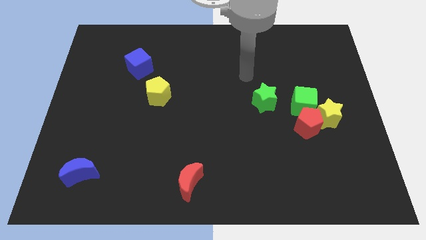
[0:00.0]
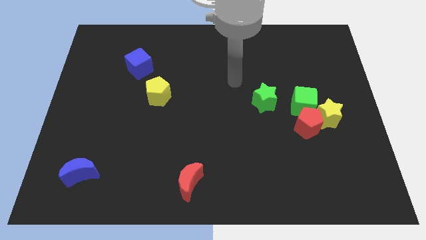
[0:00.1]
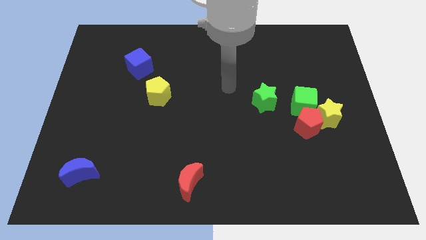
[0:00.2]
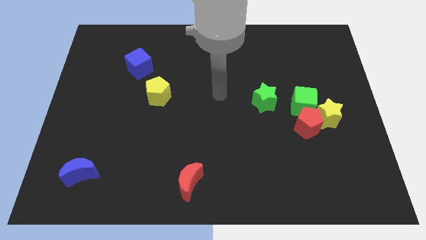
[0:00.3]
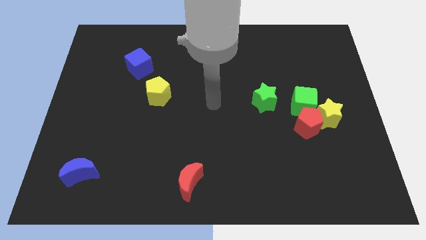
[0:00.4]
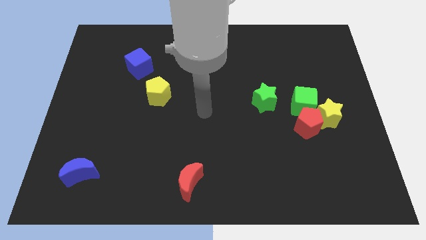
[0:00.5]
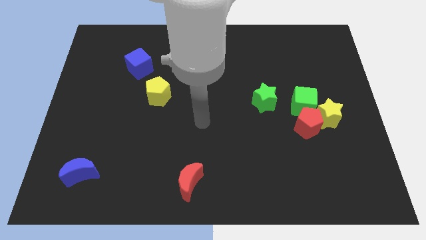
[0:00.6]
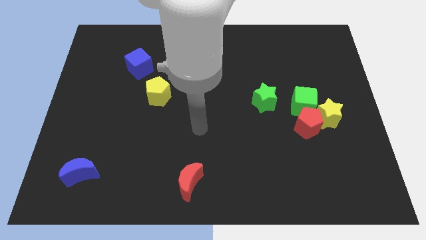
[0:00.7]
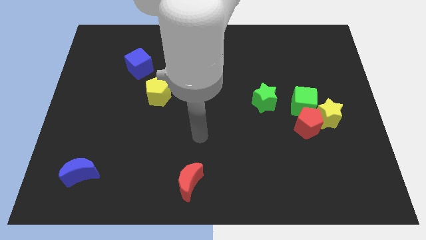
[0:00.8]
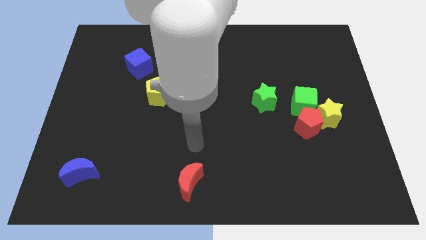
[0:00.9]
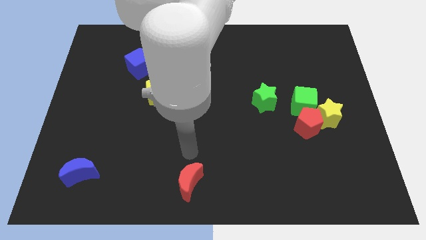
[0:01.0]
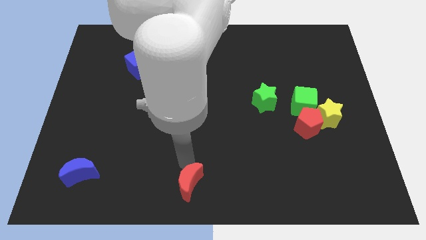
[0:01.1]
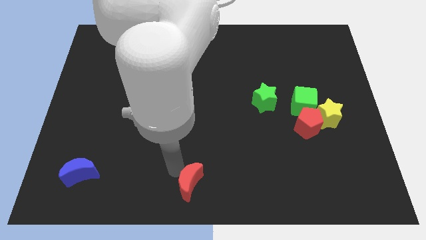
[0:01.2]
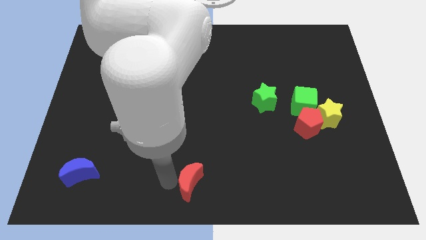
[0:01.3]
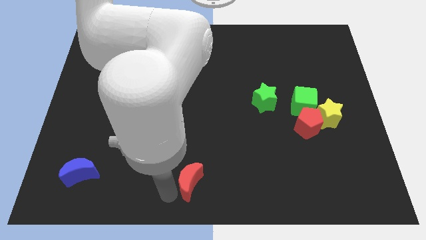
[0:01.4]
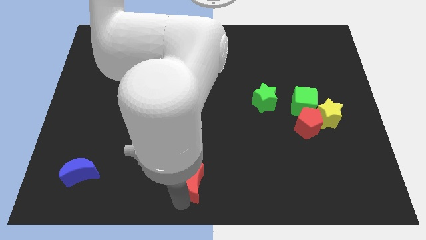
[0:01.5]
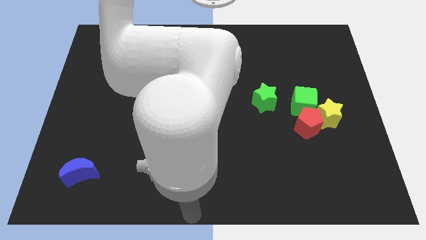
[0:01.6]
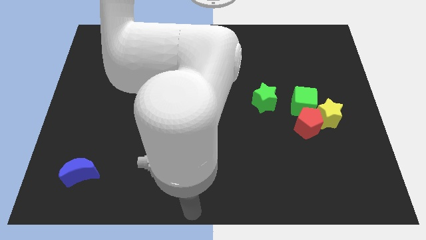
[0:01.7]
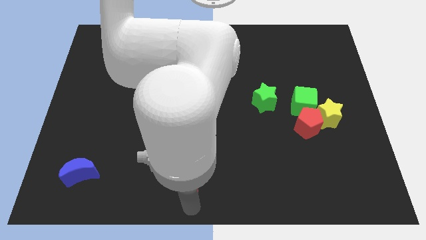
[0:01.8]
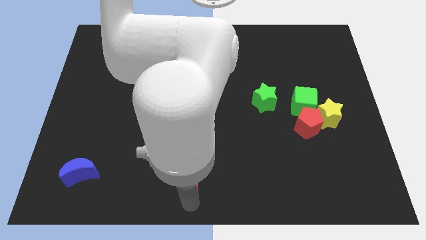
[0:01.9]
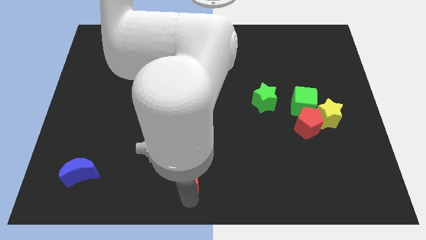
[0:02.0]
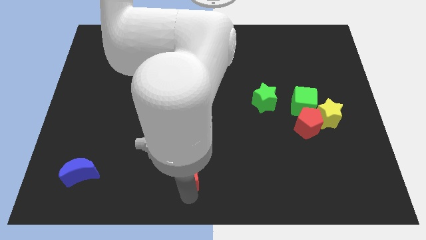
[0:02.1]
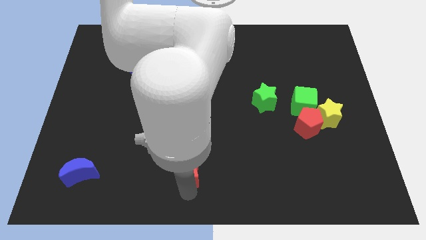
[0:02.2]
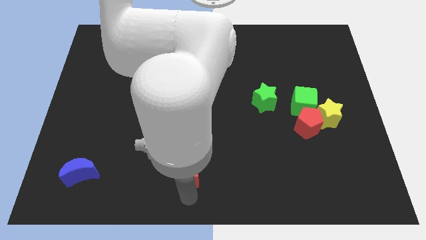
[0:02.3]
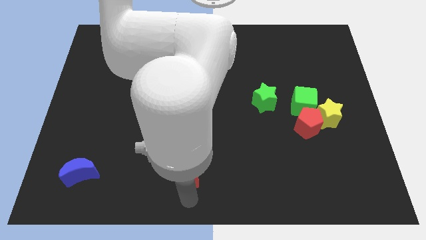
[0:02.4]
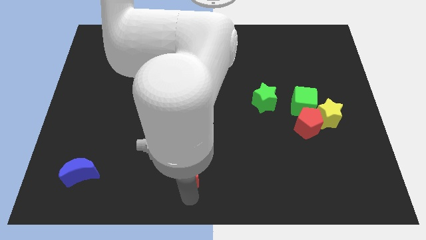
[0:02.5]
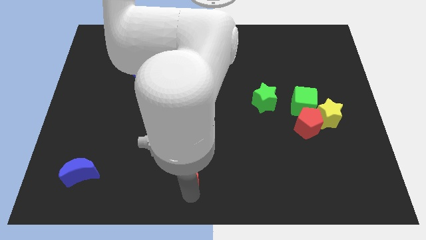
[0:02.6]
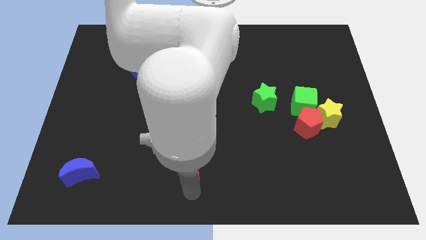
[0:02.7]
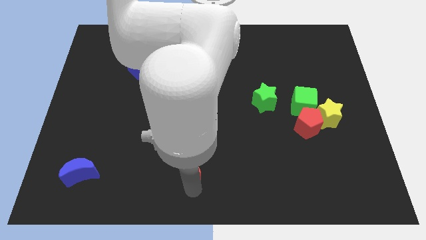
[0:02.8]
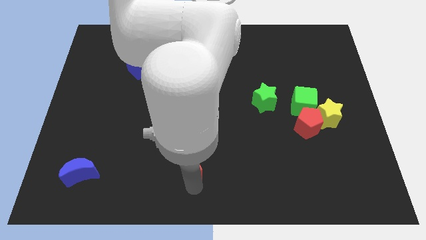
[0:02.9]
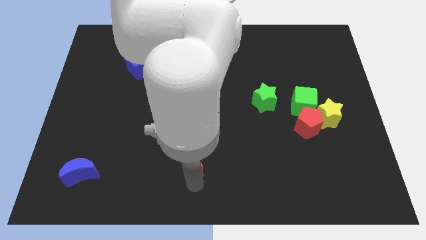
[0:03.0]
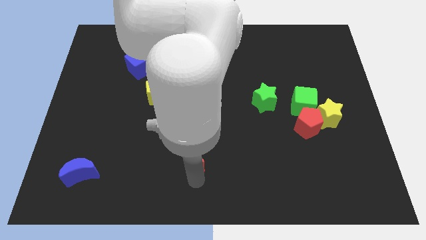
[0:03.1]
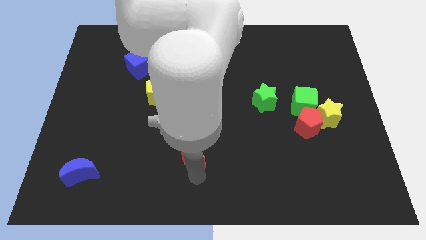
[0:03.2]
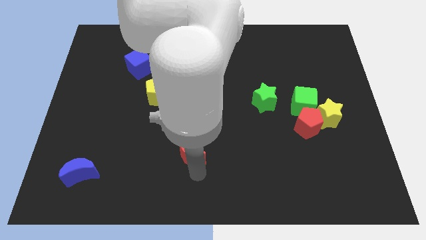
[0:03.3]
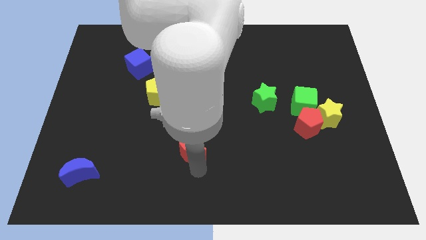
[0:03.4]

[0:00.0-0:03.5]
slide the red moon somewhat up

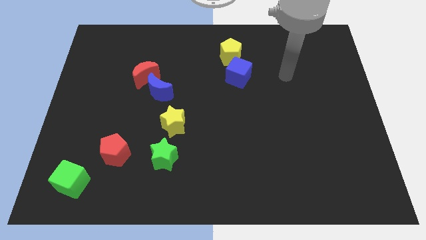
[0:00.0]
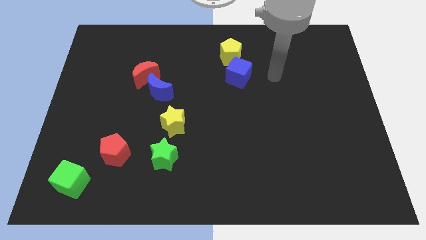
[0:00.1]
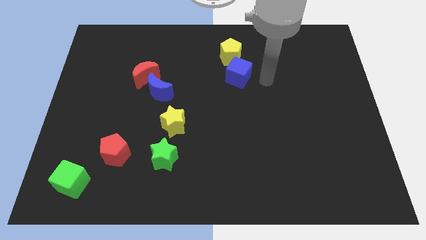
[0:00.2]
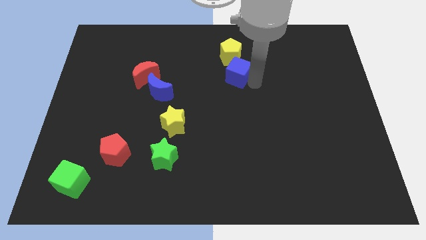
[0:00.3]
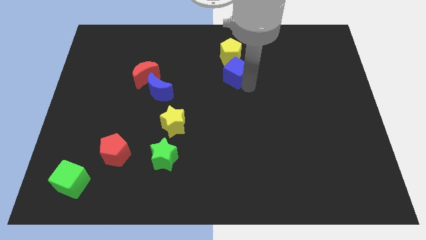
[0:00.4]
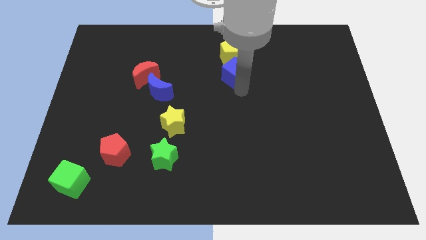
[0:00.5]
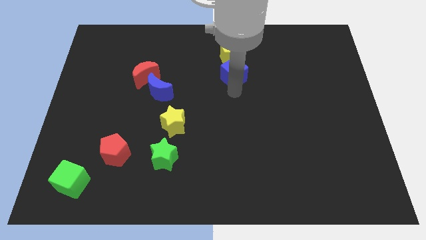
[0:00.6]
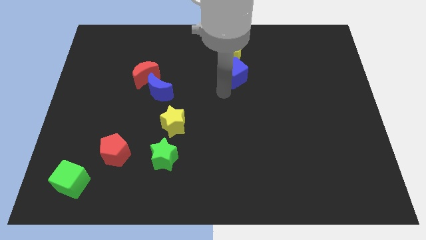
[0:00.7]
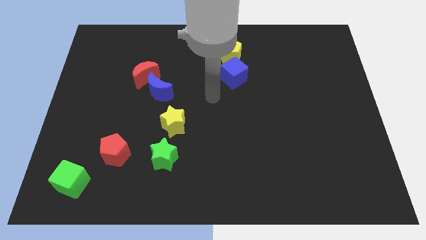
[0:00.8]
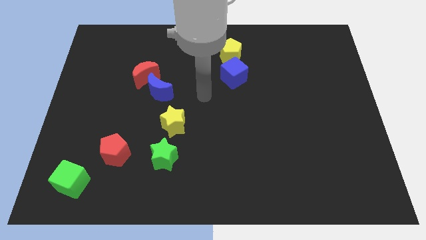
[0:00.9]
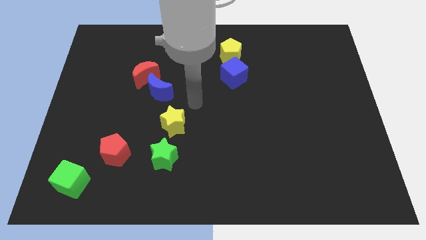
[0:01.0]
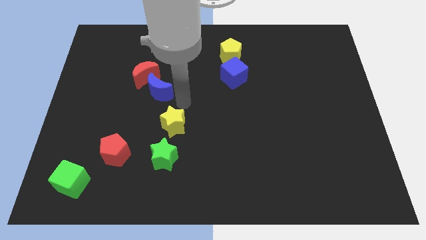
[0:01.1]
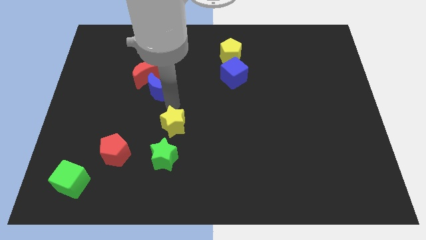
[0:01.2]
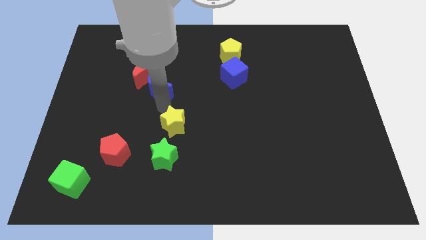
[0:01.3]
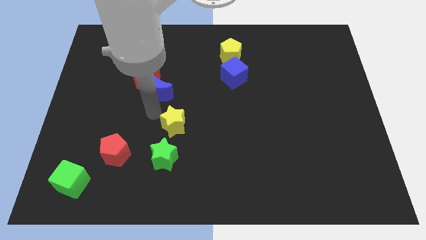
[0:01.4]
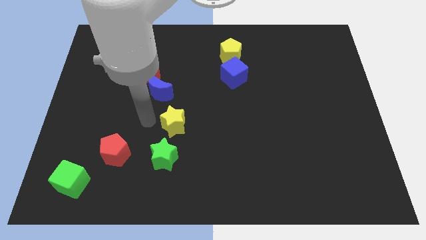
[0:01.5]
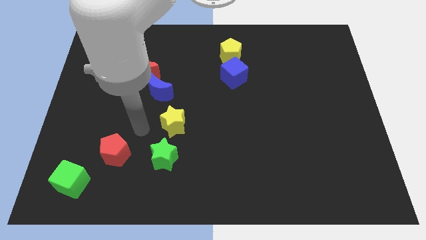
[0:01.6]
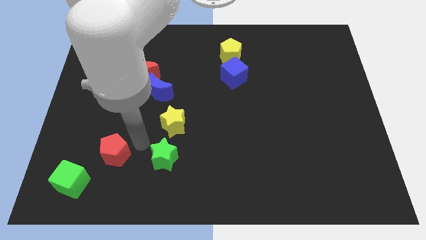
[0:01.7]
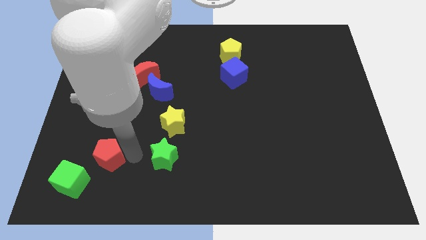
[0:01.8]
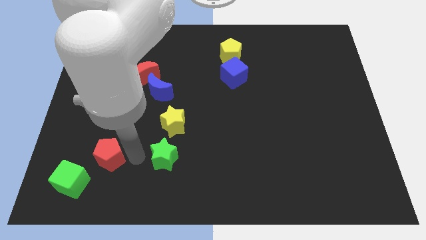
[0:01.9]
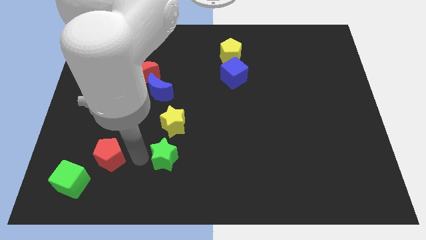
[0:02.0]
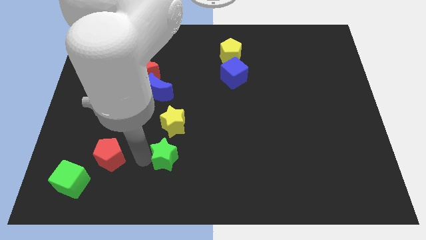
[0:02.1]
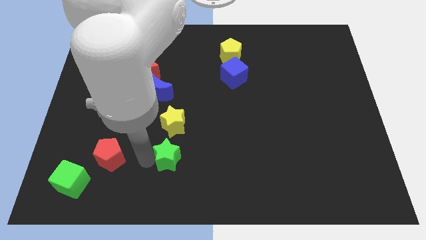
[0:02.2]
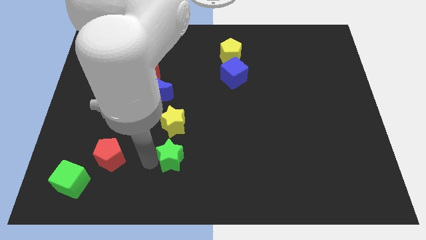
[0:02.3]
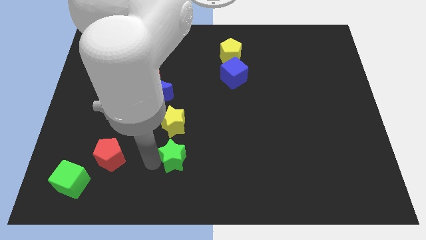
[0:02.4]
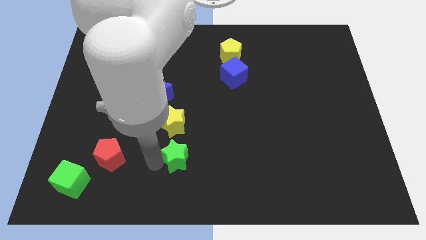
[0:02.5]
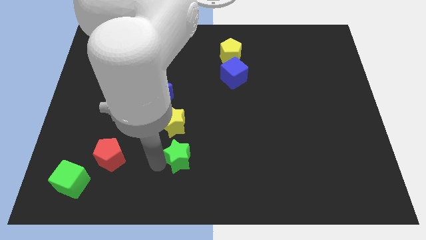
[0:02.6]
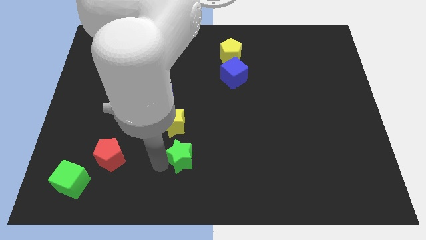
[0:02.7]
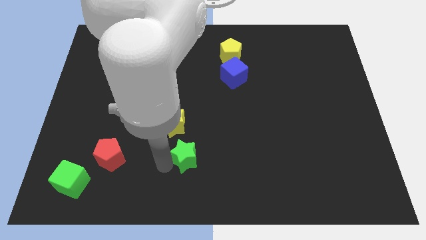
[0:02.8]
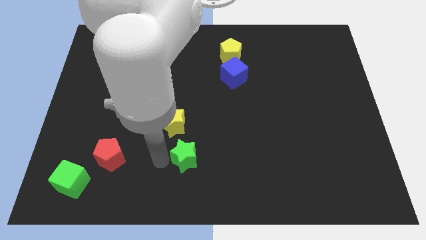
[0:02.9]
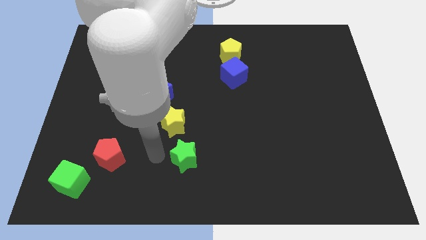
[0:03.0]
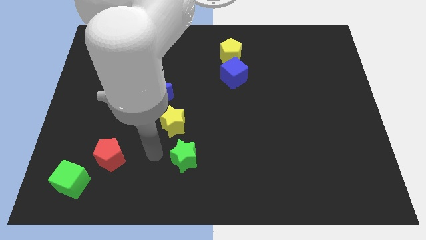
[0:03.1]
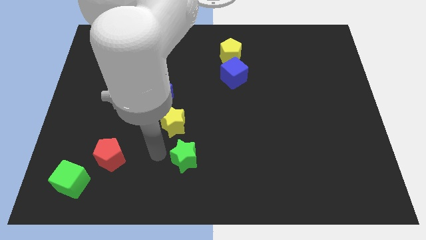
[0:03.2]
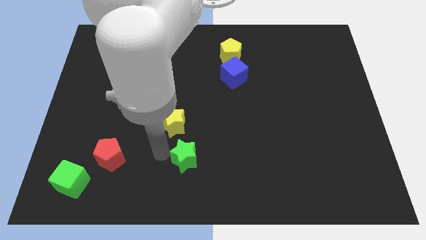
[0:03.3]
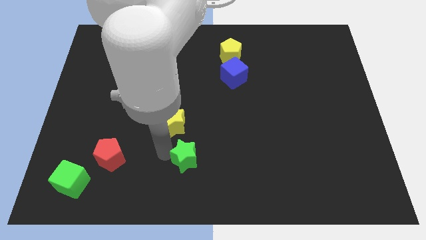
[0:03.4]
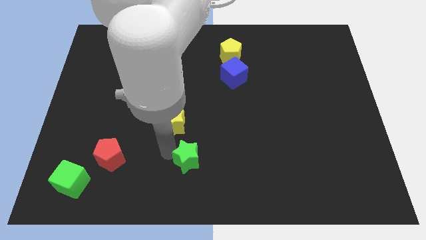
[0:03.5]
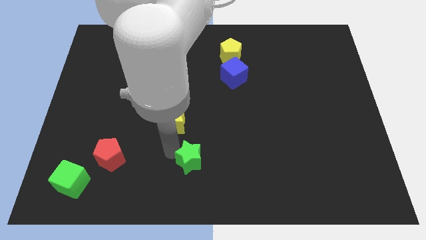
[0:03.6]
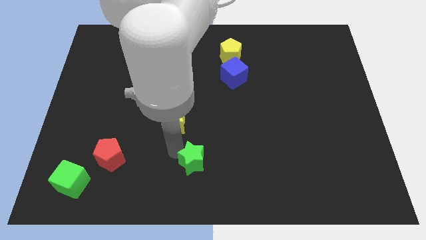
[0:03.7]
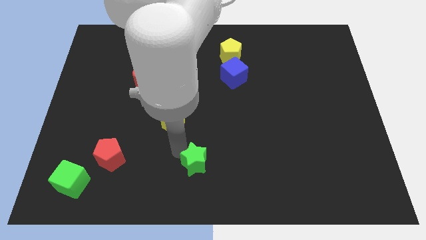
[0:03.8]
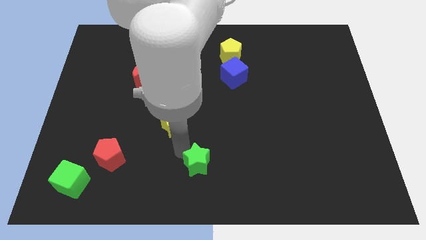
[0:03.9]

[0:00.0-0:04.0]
push the green star a little bit right

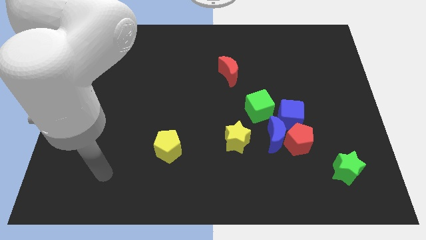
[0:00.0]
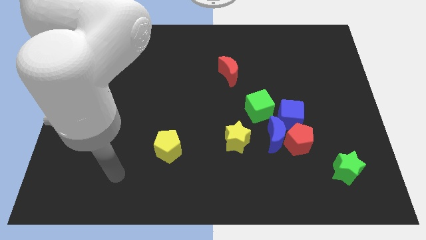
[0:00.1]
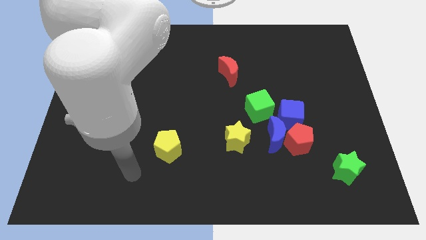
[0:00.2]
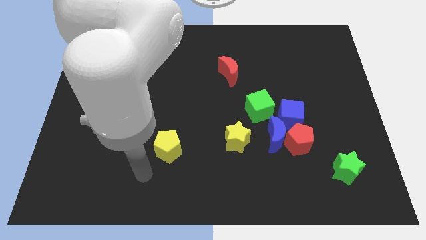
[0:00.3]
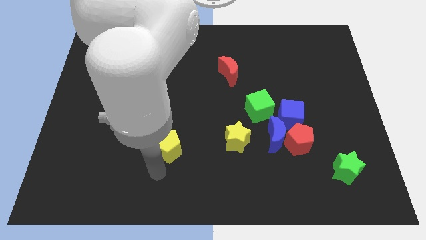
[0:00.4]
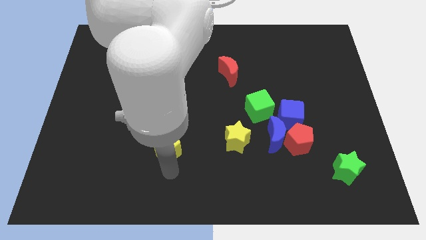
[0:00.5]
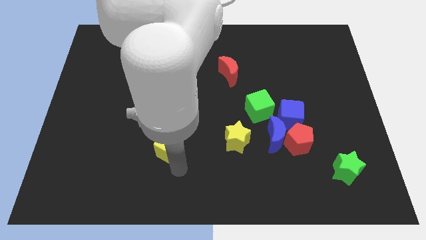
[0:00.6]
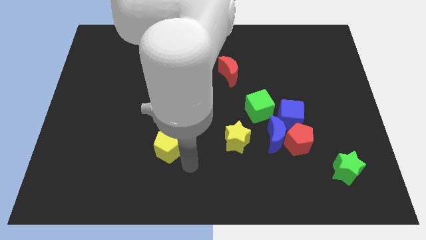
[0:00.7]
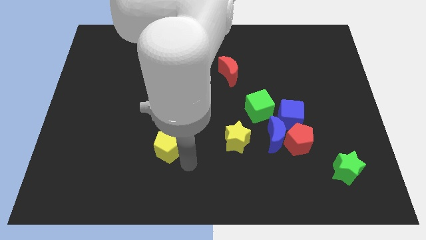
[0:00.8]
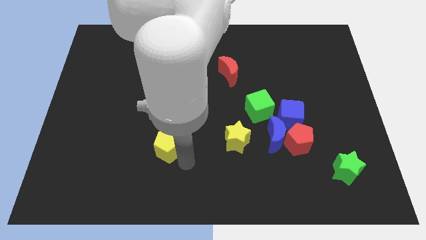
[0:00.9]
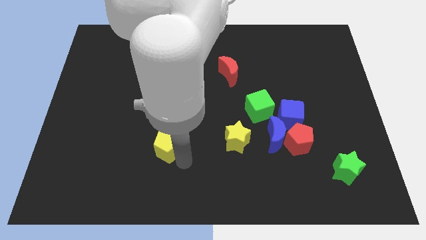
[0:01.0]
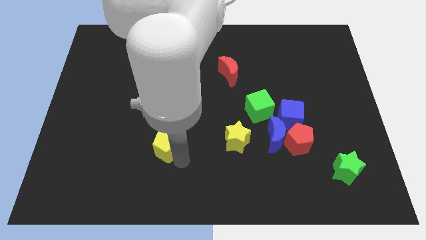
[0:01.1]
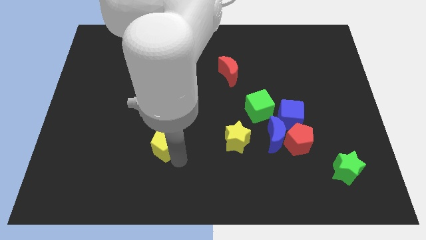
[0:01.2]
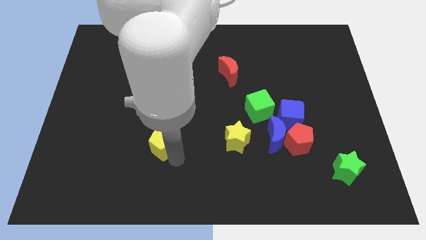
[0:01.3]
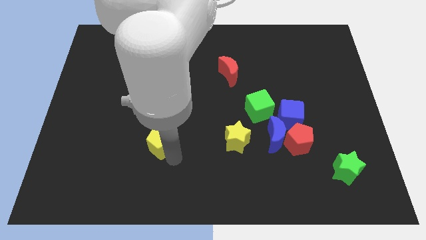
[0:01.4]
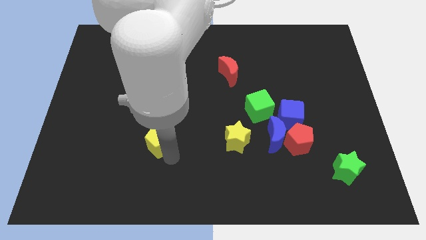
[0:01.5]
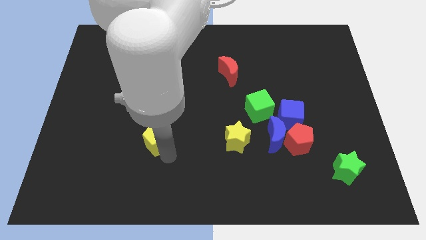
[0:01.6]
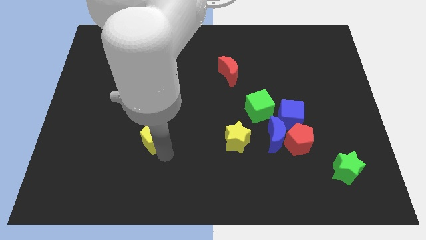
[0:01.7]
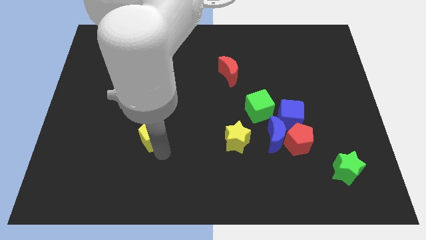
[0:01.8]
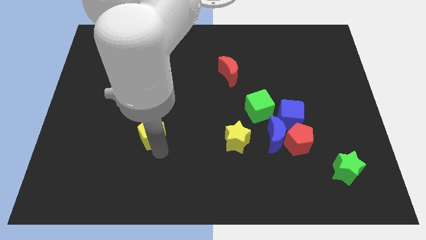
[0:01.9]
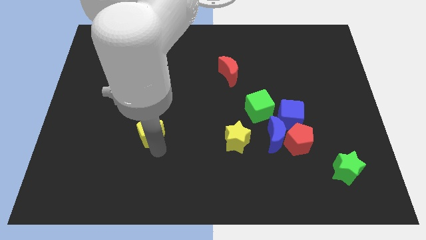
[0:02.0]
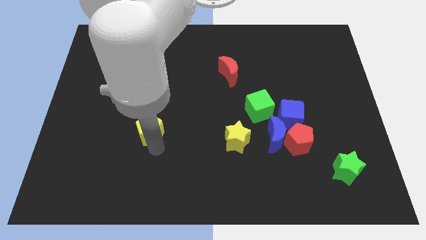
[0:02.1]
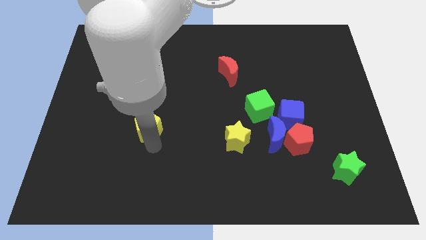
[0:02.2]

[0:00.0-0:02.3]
slightly push the yellow pentagon upwards and left
